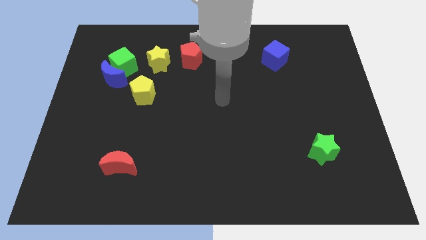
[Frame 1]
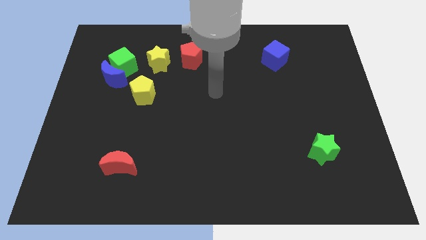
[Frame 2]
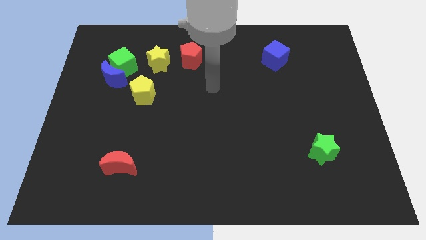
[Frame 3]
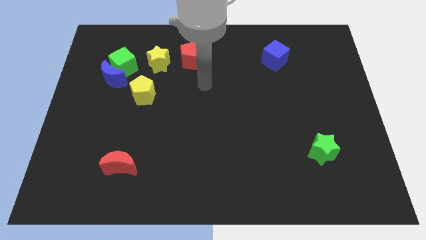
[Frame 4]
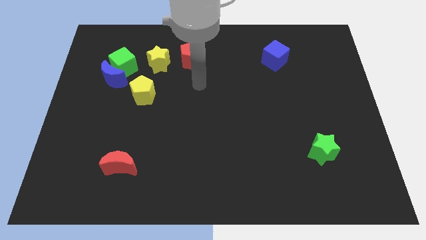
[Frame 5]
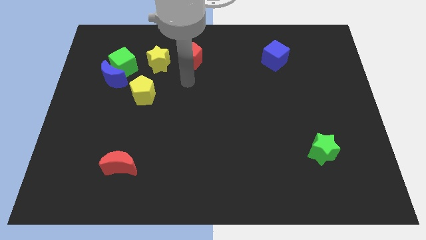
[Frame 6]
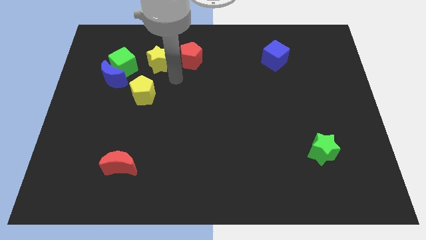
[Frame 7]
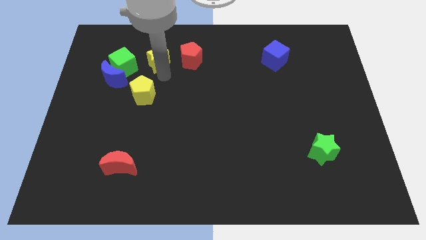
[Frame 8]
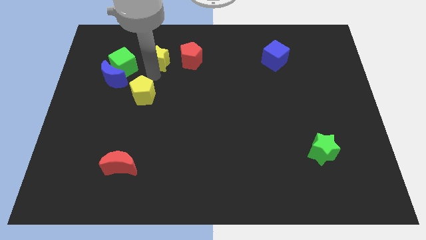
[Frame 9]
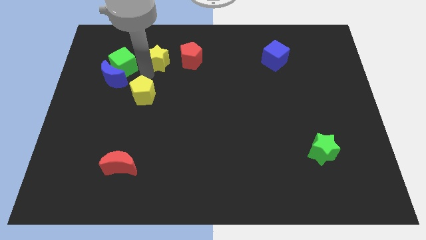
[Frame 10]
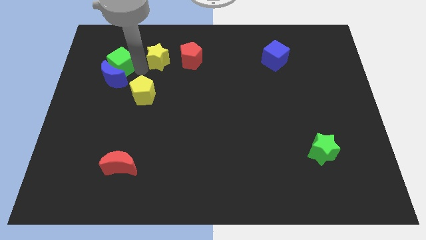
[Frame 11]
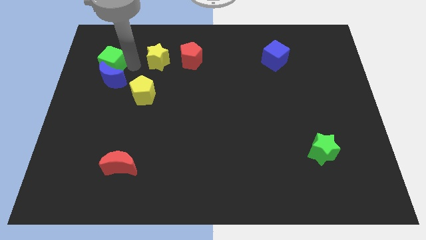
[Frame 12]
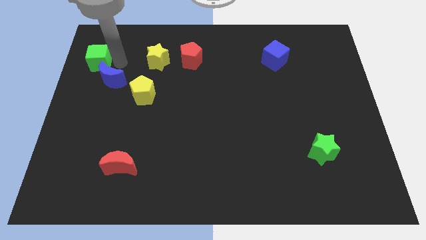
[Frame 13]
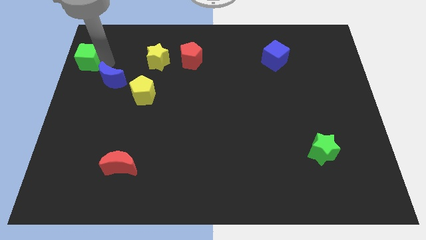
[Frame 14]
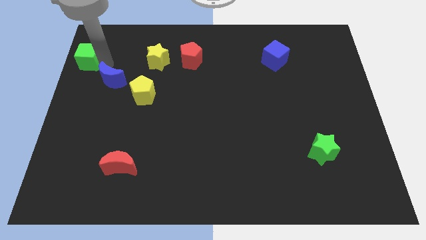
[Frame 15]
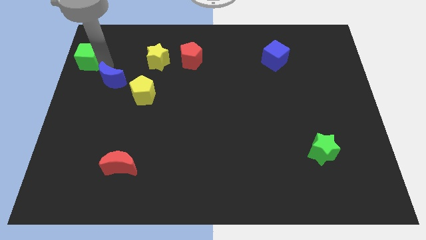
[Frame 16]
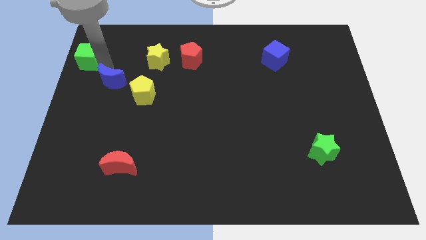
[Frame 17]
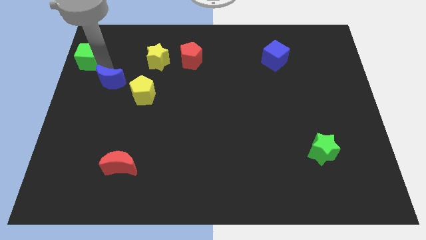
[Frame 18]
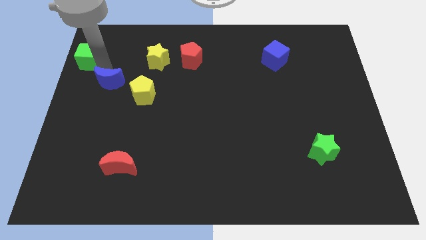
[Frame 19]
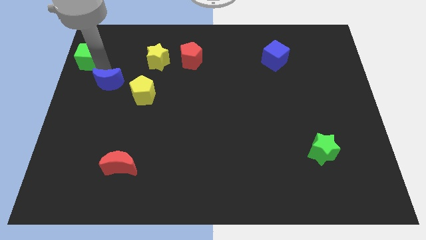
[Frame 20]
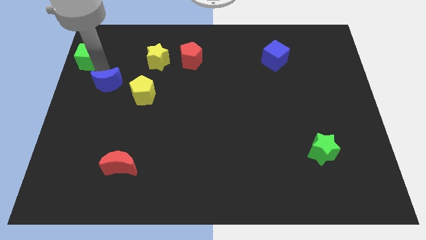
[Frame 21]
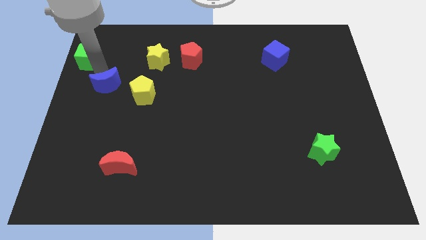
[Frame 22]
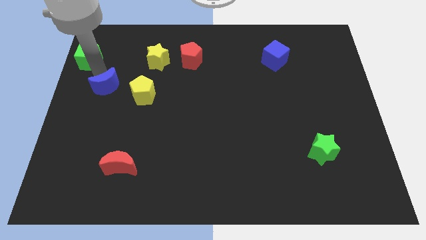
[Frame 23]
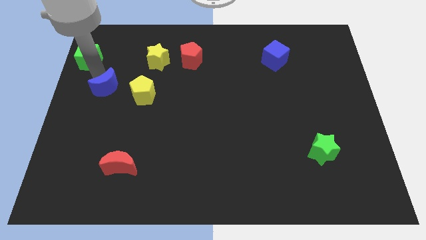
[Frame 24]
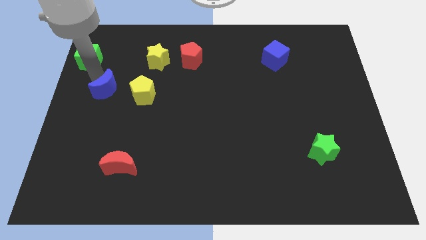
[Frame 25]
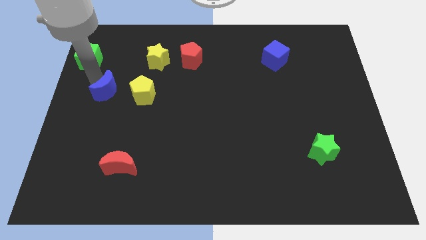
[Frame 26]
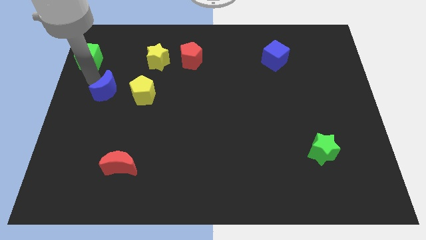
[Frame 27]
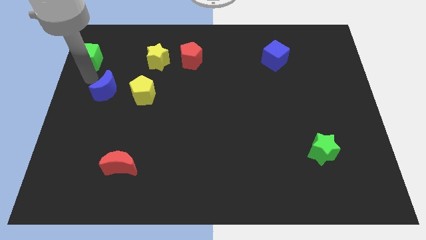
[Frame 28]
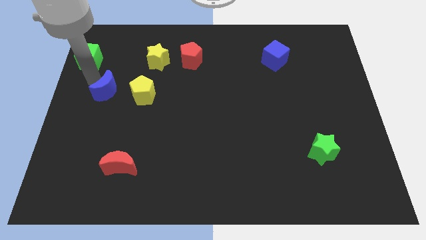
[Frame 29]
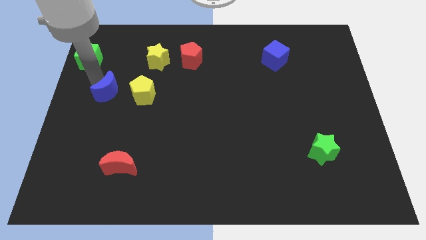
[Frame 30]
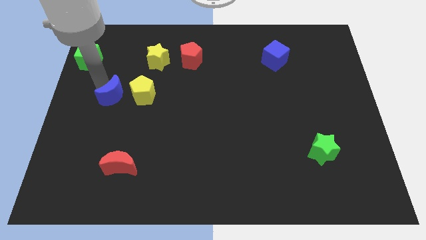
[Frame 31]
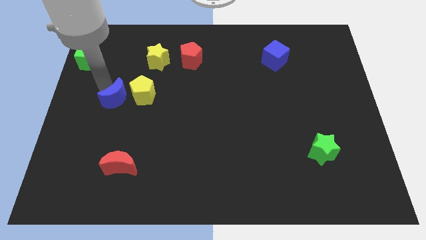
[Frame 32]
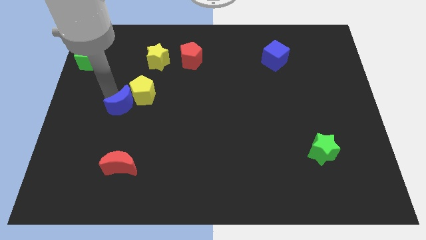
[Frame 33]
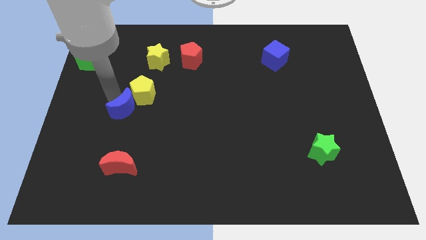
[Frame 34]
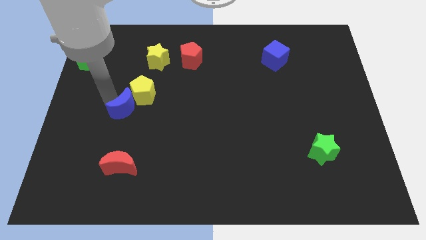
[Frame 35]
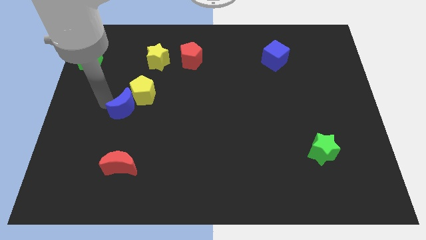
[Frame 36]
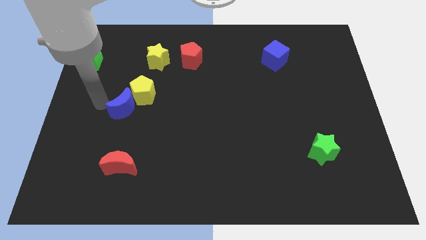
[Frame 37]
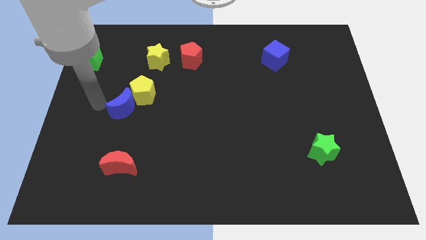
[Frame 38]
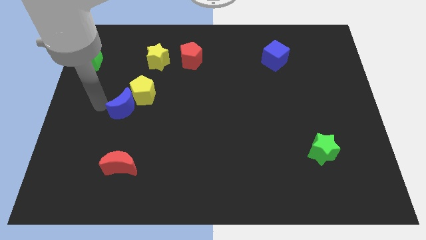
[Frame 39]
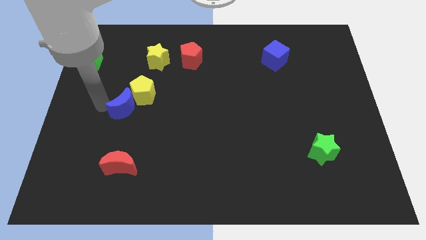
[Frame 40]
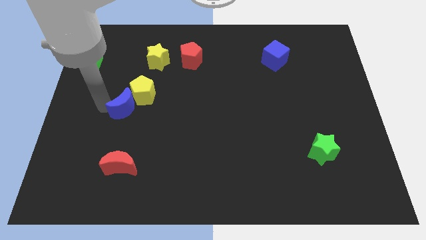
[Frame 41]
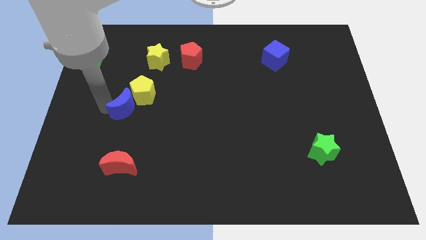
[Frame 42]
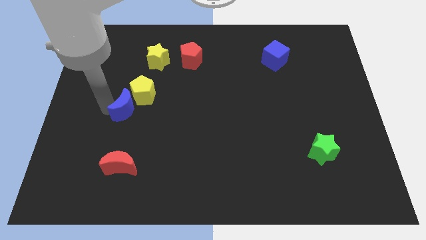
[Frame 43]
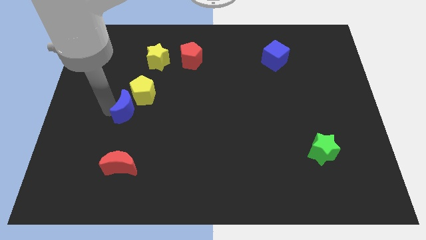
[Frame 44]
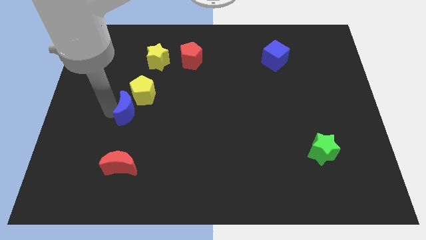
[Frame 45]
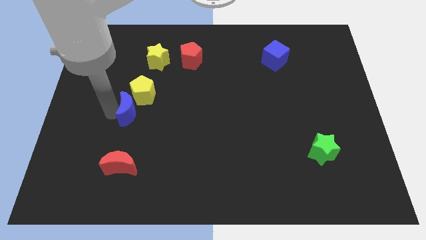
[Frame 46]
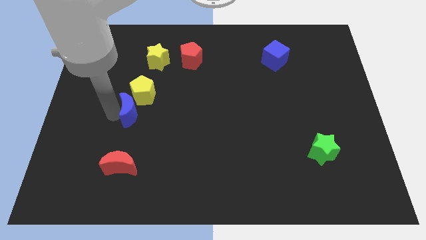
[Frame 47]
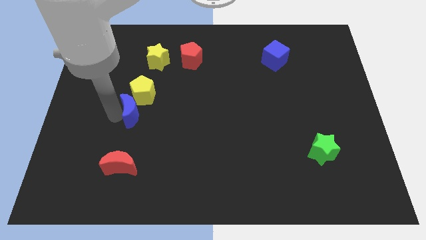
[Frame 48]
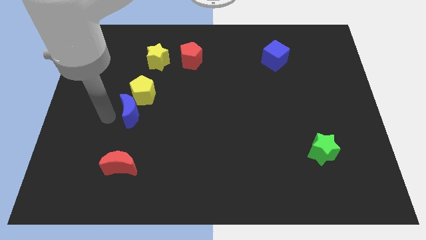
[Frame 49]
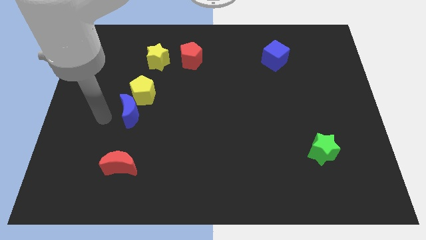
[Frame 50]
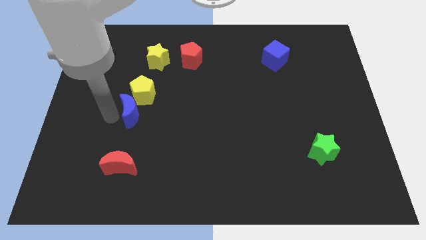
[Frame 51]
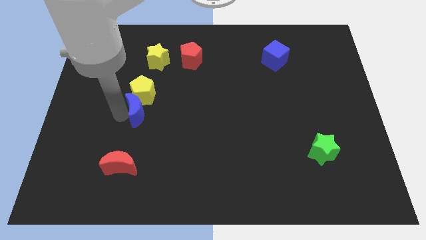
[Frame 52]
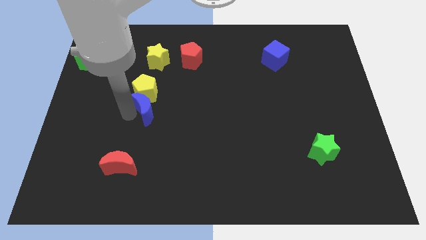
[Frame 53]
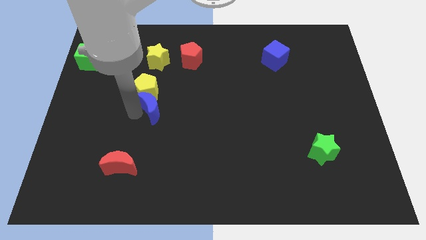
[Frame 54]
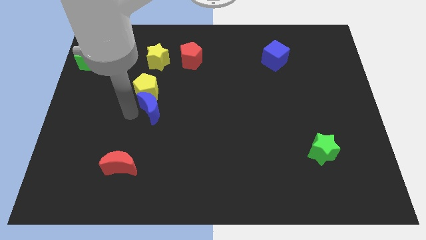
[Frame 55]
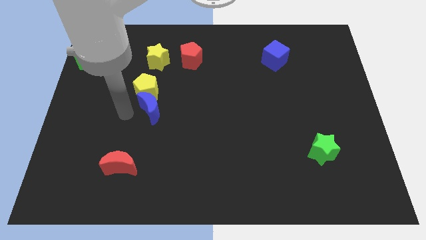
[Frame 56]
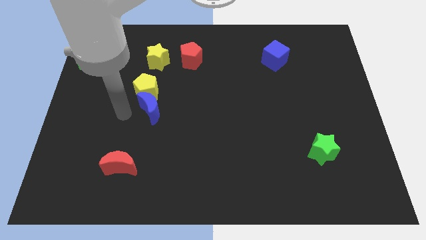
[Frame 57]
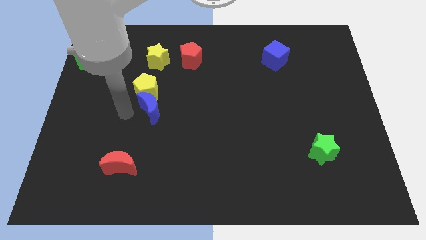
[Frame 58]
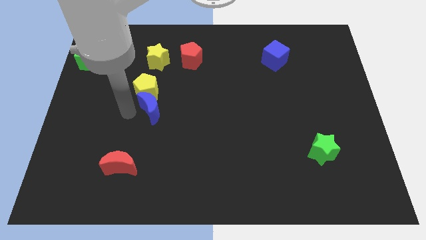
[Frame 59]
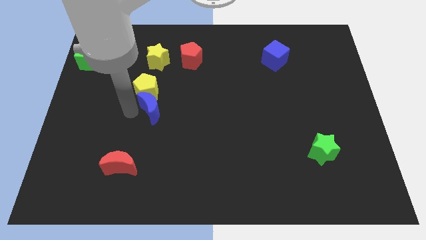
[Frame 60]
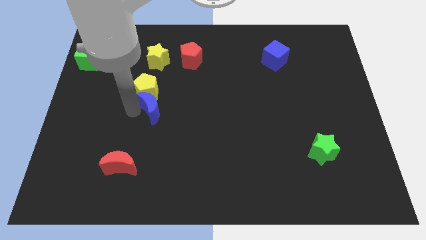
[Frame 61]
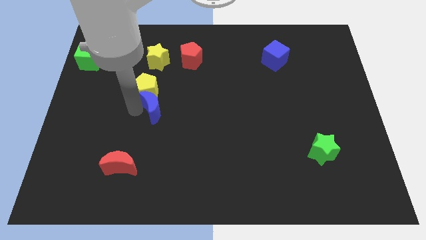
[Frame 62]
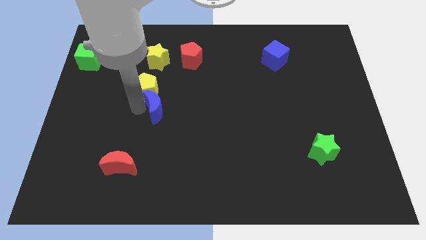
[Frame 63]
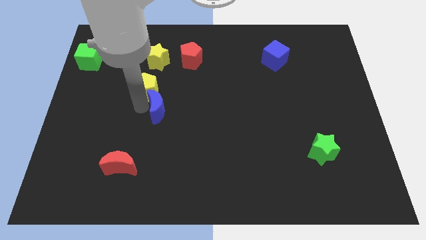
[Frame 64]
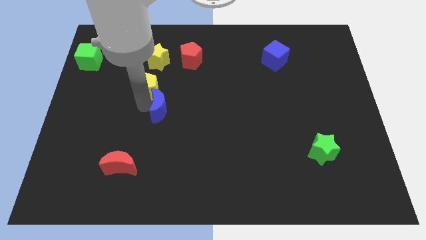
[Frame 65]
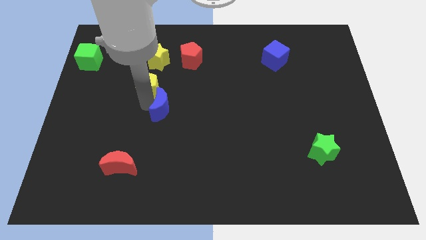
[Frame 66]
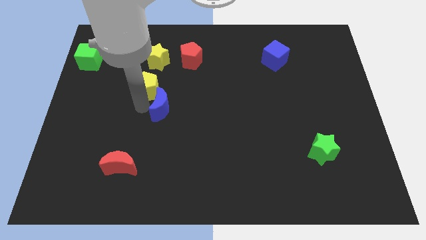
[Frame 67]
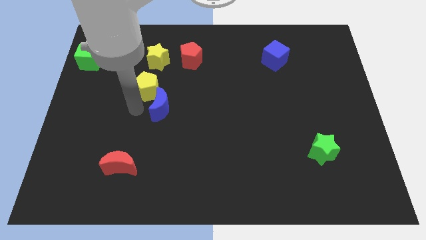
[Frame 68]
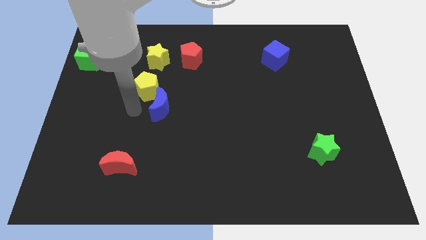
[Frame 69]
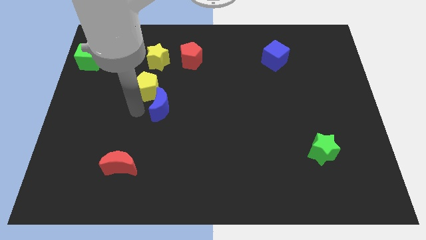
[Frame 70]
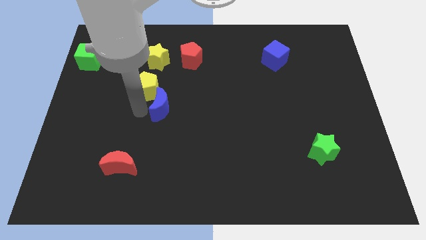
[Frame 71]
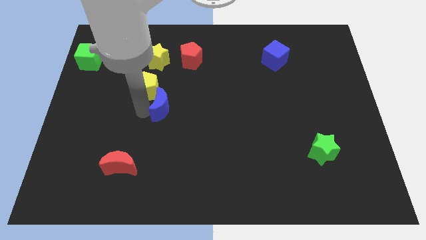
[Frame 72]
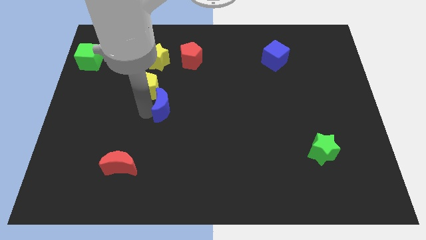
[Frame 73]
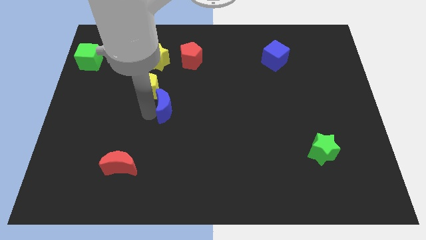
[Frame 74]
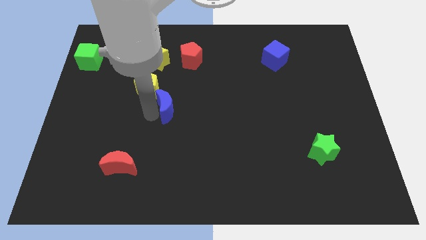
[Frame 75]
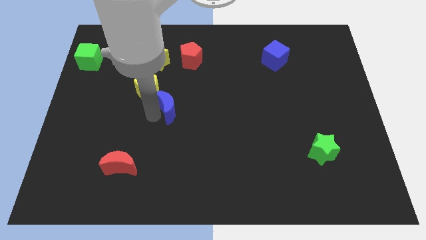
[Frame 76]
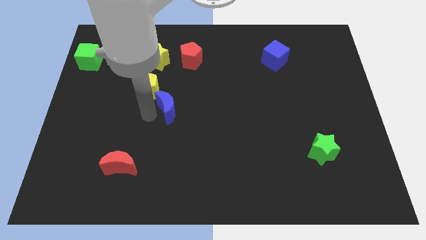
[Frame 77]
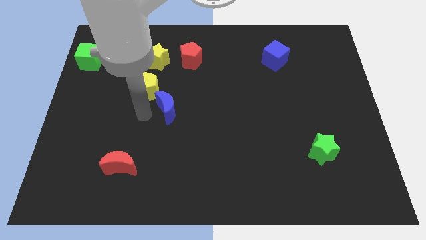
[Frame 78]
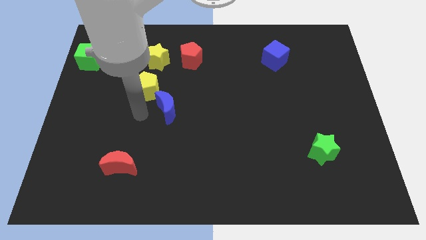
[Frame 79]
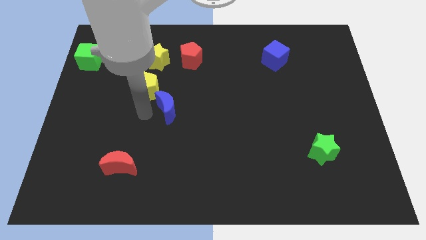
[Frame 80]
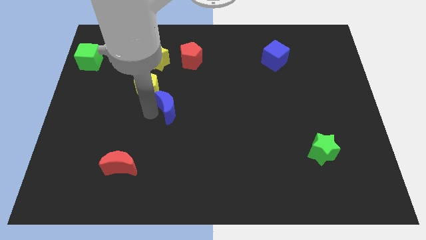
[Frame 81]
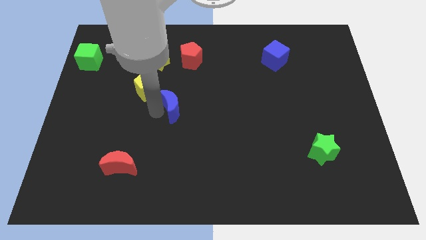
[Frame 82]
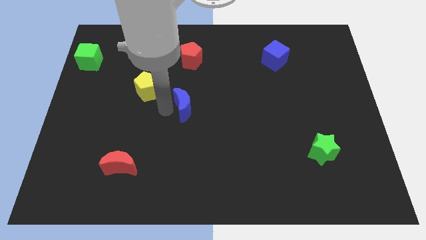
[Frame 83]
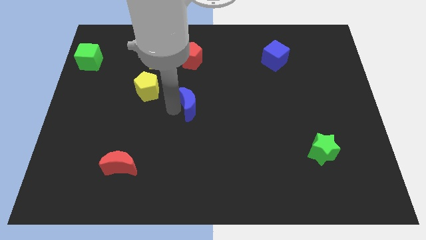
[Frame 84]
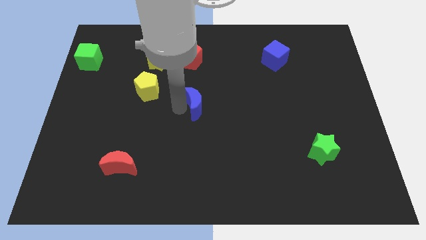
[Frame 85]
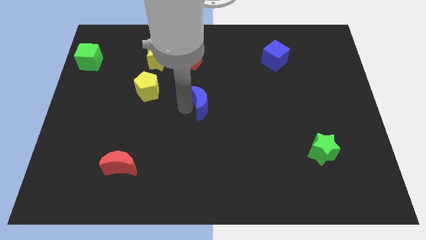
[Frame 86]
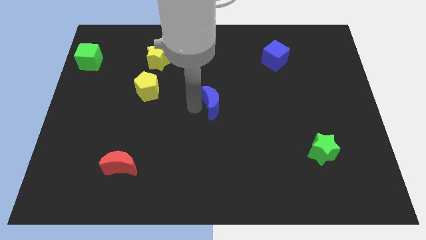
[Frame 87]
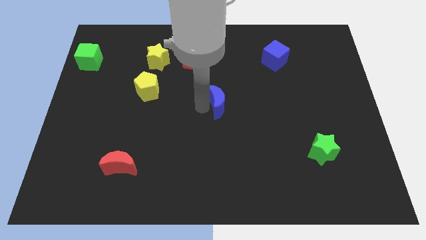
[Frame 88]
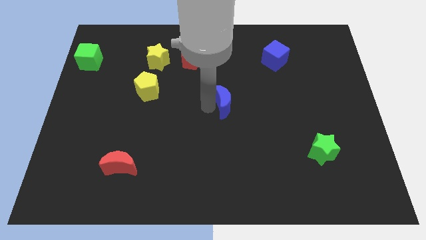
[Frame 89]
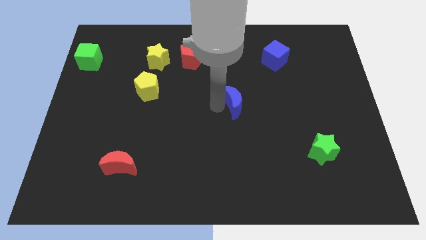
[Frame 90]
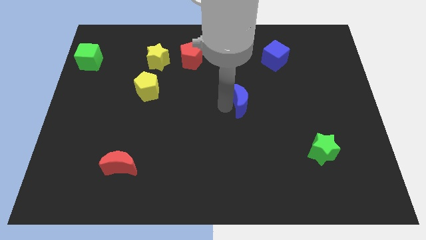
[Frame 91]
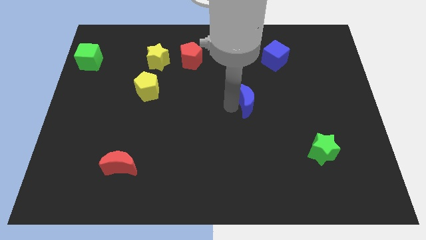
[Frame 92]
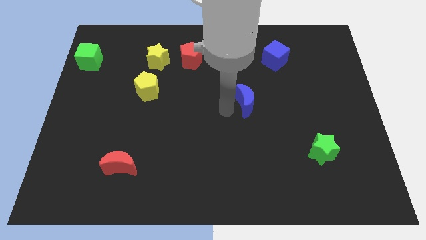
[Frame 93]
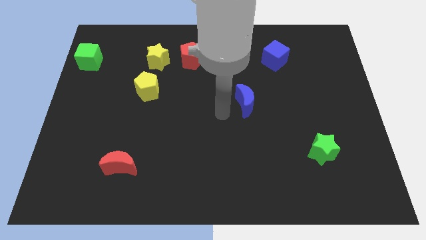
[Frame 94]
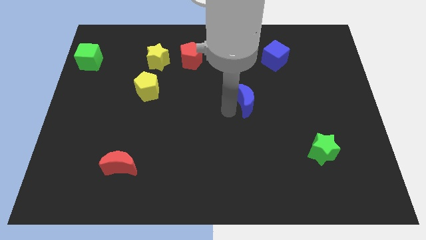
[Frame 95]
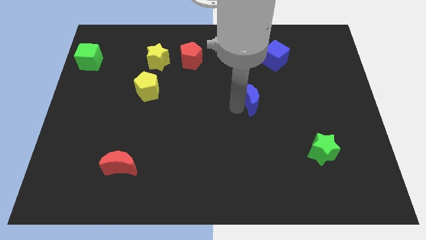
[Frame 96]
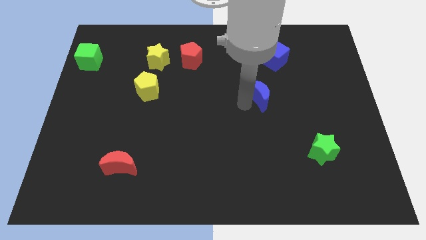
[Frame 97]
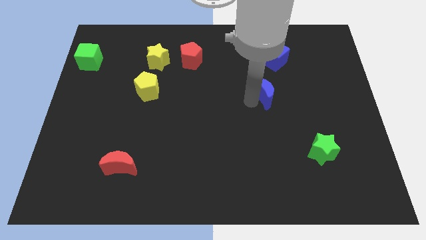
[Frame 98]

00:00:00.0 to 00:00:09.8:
slide the blue moon to the bottom of the blue cube
